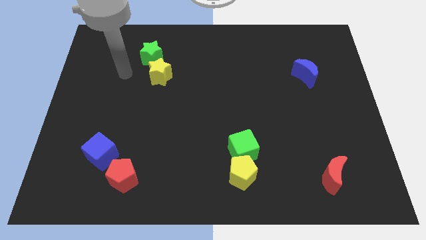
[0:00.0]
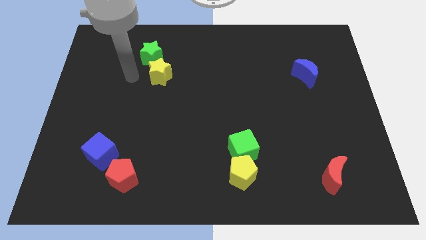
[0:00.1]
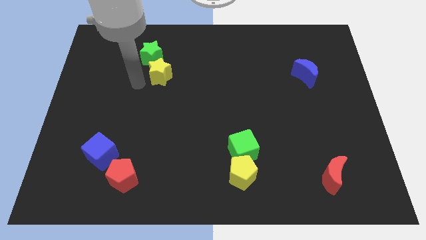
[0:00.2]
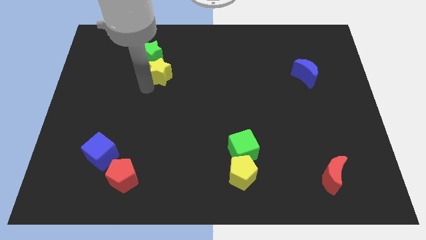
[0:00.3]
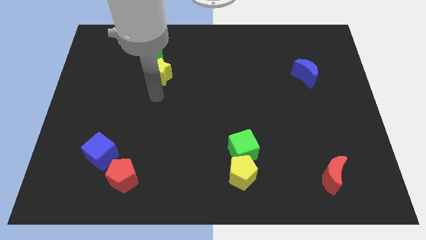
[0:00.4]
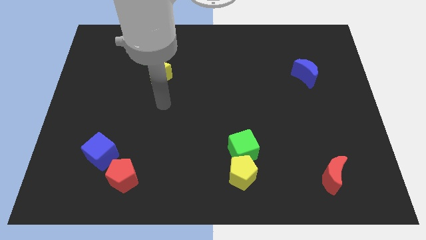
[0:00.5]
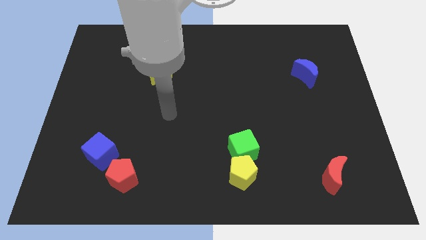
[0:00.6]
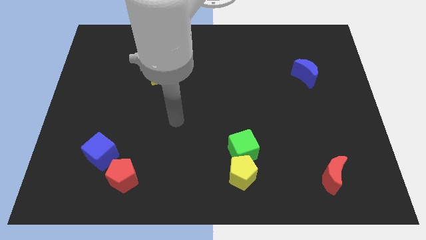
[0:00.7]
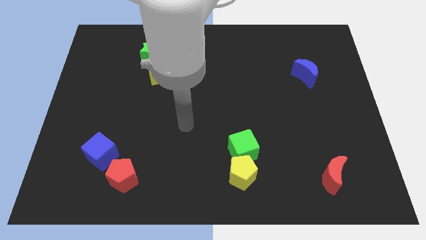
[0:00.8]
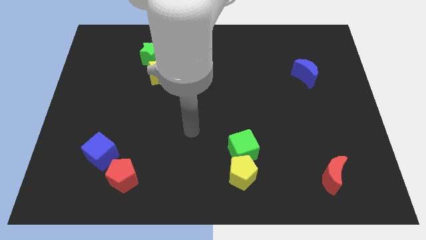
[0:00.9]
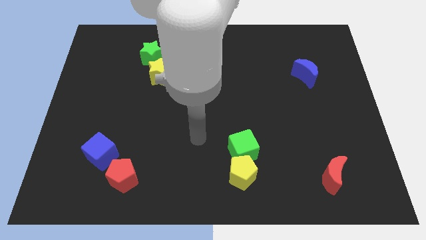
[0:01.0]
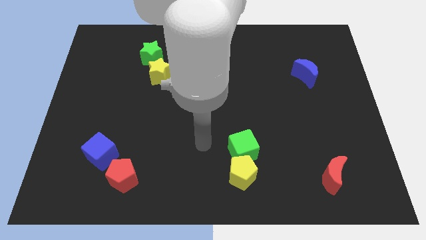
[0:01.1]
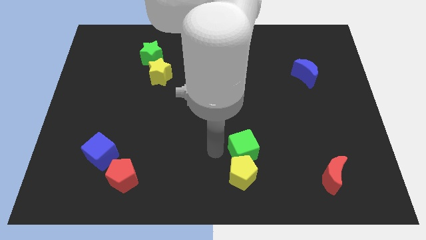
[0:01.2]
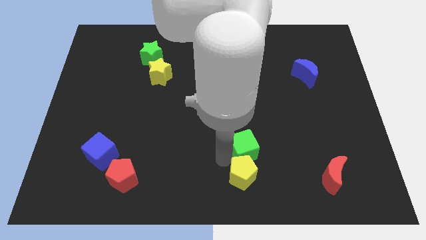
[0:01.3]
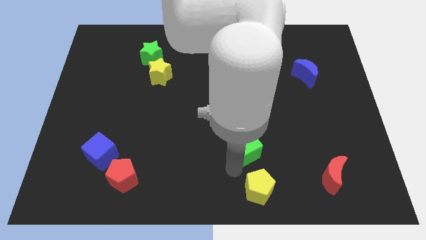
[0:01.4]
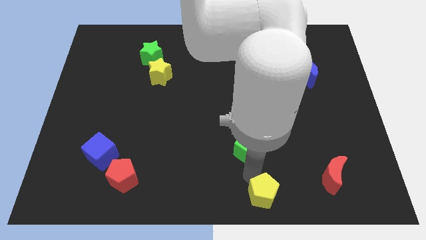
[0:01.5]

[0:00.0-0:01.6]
move the green cube away from the yellow pentagon

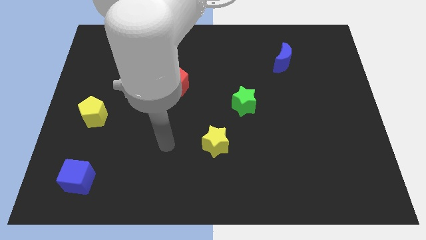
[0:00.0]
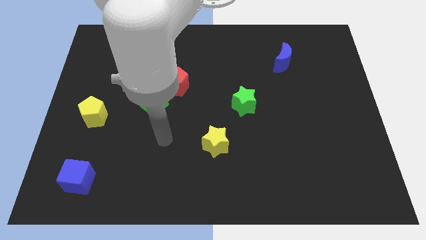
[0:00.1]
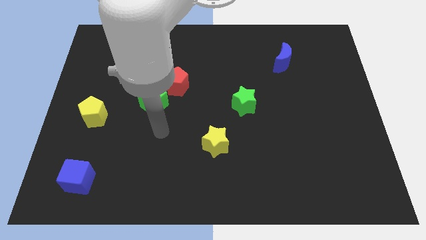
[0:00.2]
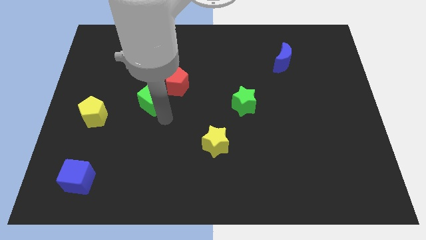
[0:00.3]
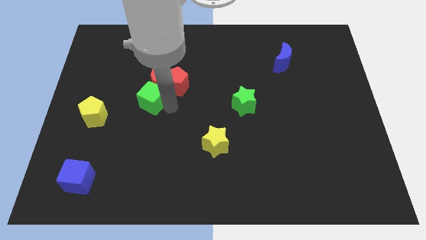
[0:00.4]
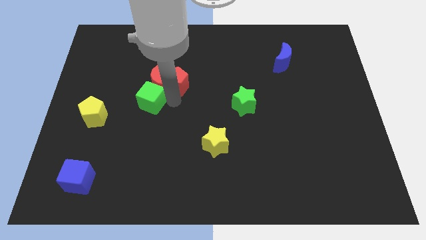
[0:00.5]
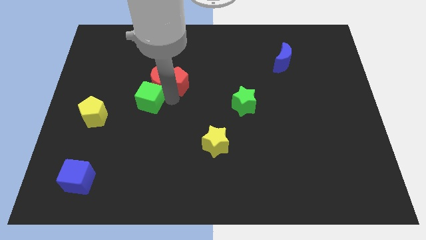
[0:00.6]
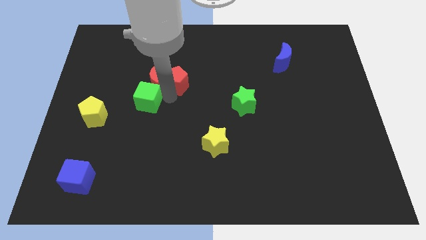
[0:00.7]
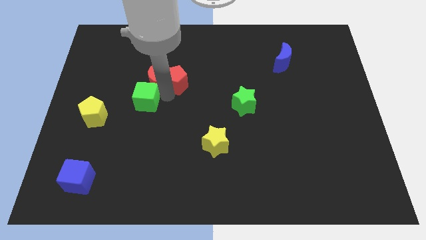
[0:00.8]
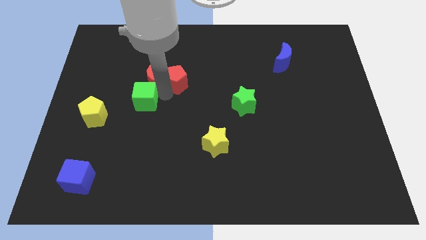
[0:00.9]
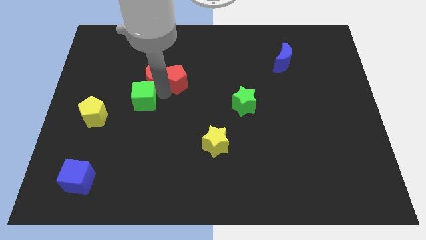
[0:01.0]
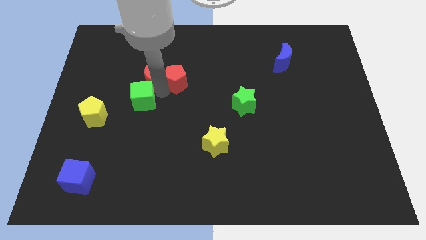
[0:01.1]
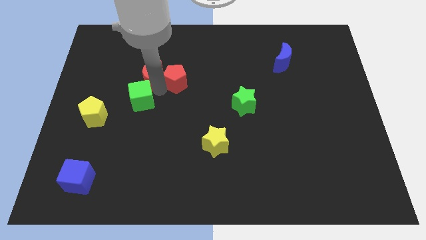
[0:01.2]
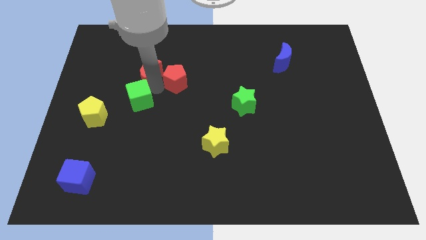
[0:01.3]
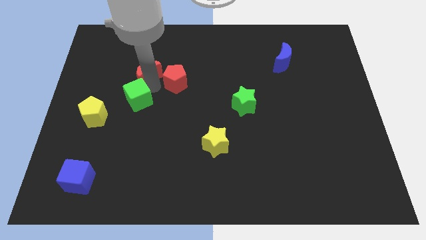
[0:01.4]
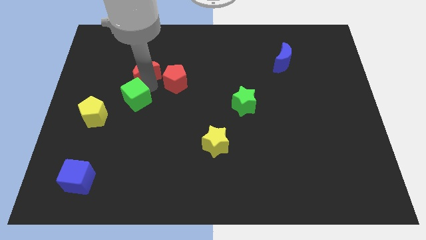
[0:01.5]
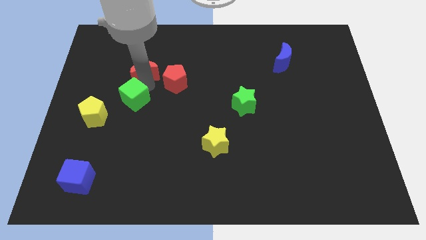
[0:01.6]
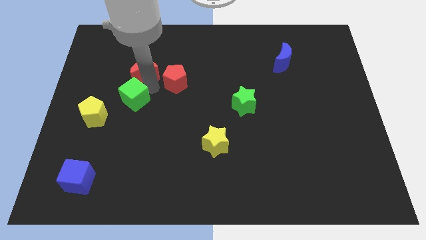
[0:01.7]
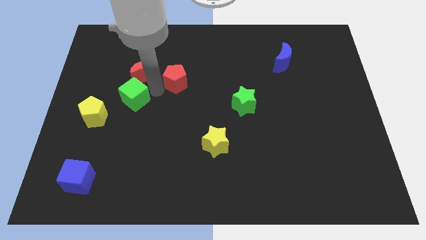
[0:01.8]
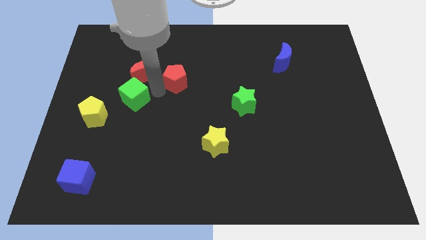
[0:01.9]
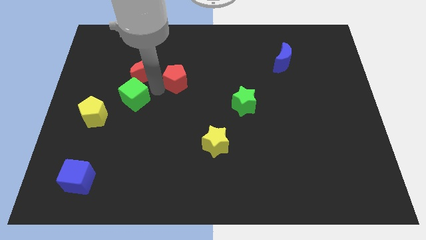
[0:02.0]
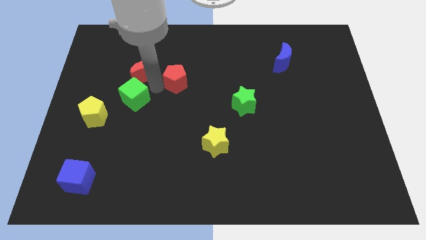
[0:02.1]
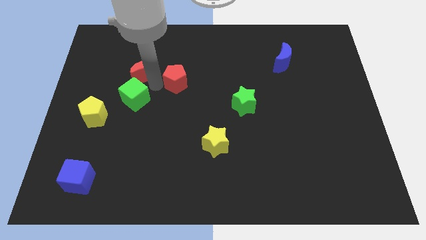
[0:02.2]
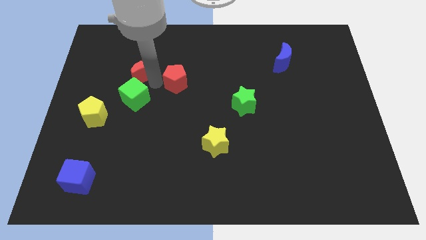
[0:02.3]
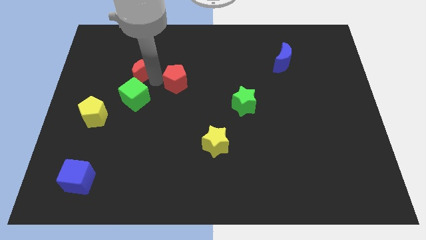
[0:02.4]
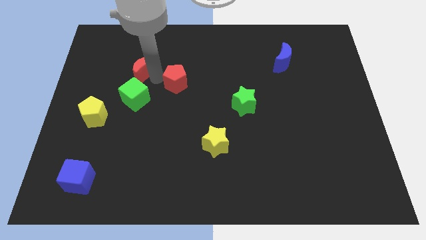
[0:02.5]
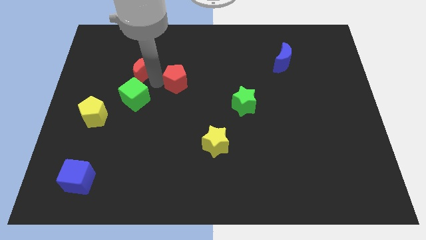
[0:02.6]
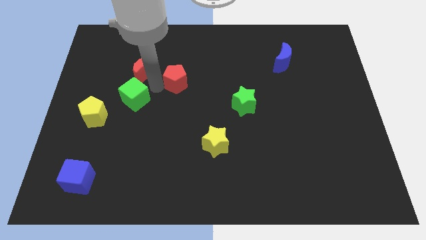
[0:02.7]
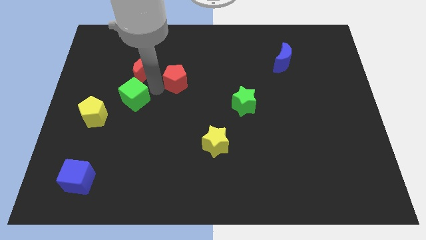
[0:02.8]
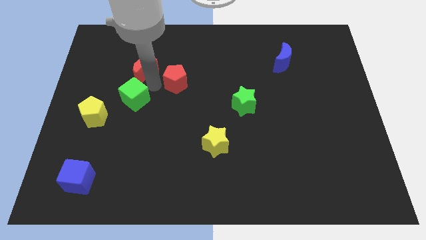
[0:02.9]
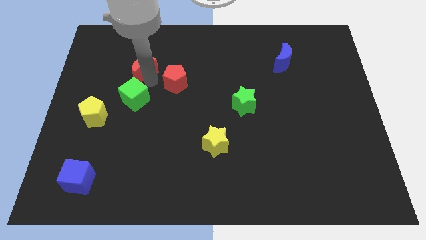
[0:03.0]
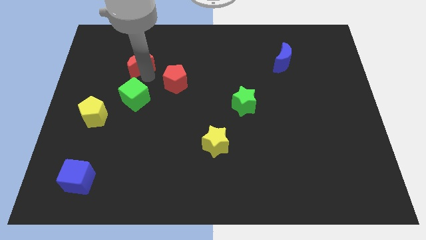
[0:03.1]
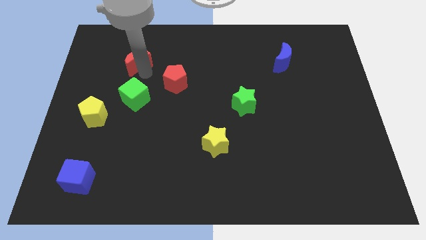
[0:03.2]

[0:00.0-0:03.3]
move the red moon away from the red pentagon and green cube

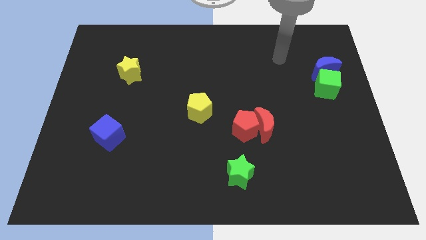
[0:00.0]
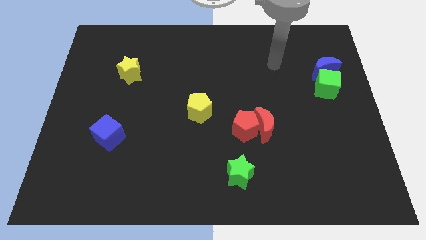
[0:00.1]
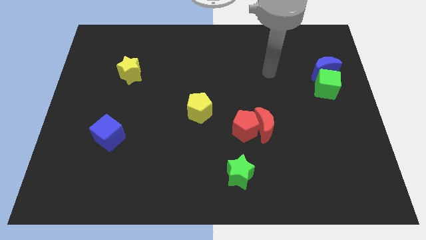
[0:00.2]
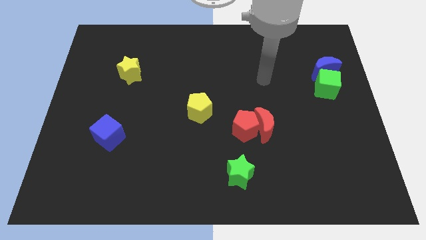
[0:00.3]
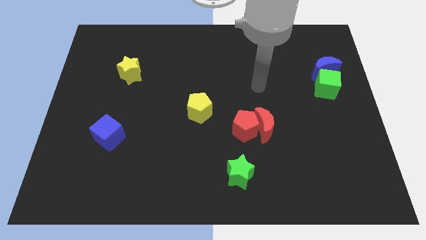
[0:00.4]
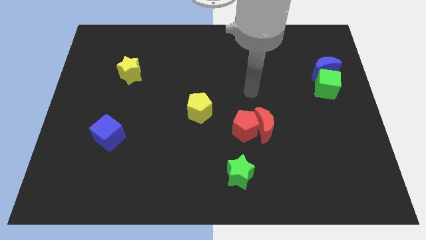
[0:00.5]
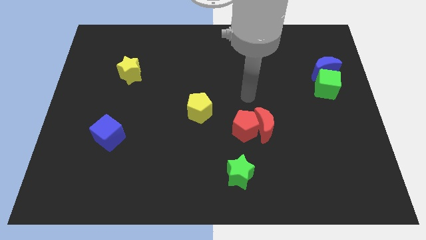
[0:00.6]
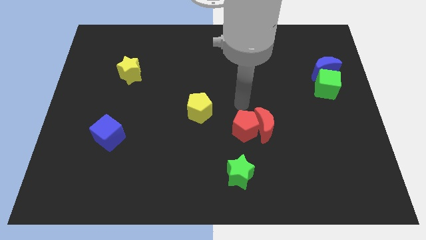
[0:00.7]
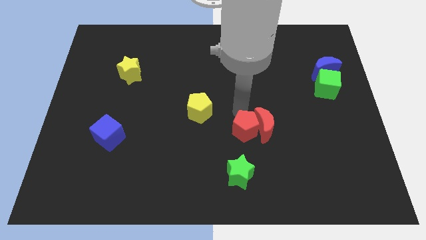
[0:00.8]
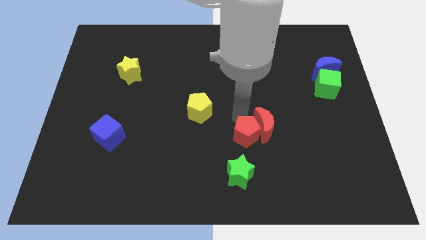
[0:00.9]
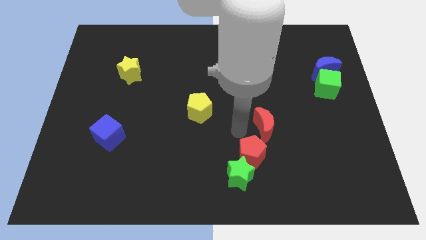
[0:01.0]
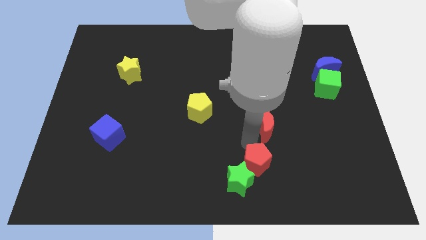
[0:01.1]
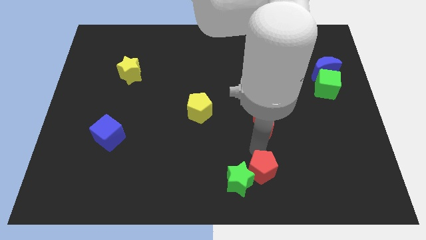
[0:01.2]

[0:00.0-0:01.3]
pull the red moon apart from the red pentagon

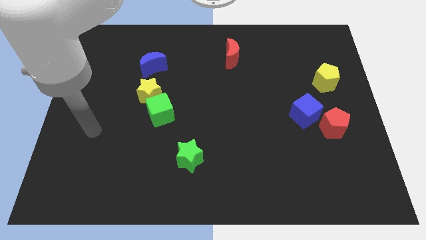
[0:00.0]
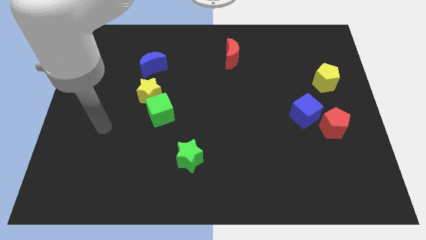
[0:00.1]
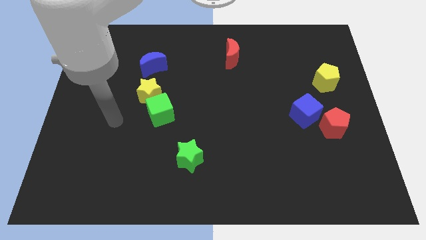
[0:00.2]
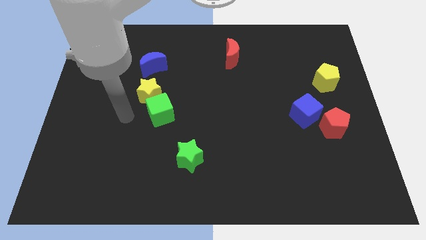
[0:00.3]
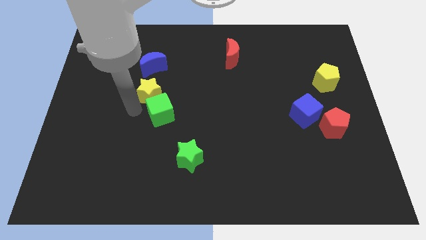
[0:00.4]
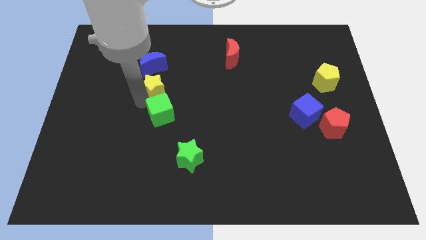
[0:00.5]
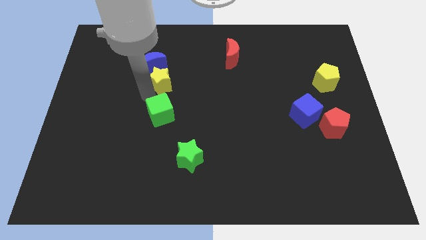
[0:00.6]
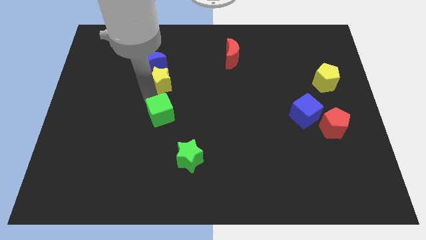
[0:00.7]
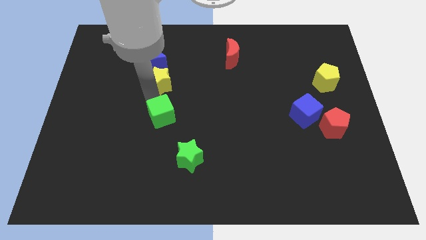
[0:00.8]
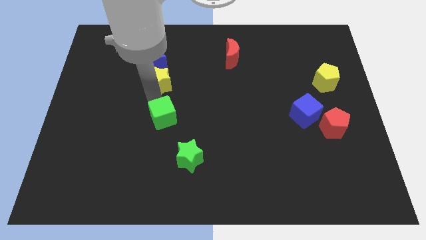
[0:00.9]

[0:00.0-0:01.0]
move the green cube away from the yellow star

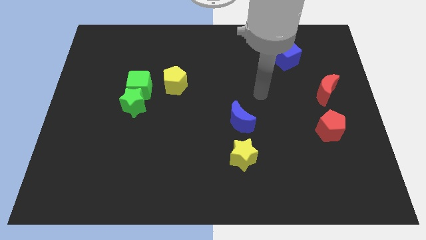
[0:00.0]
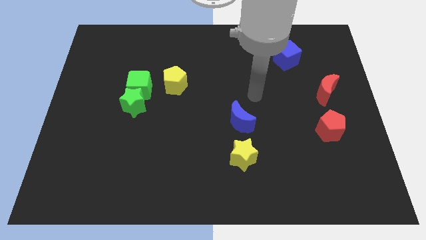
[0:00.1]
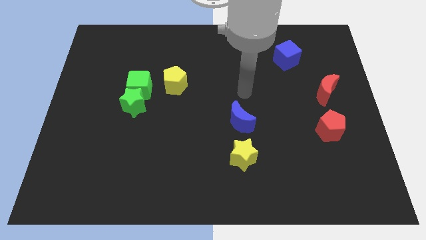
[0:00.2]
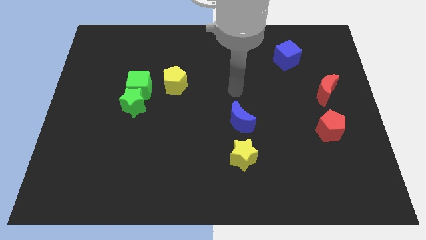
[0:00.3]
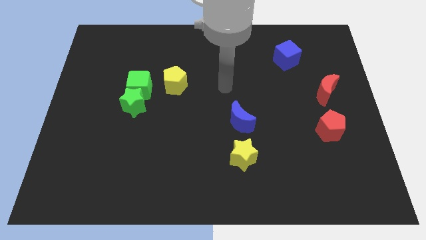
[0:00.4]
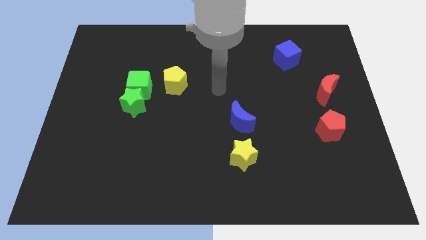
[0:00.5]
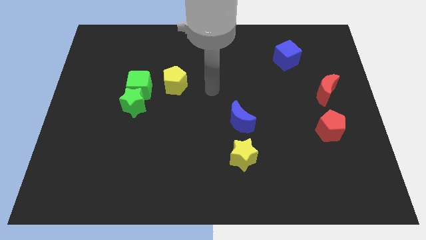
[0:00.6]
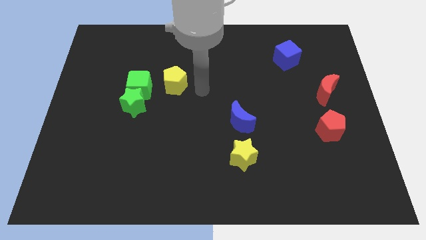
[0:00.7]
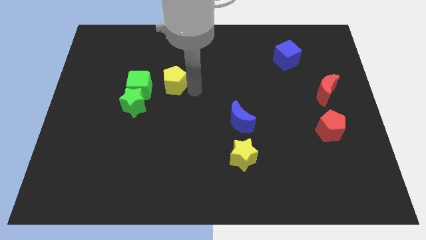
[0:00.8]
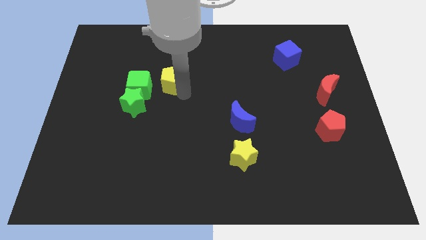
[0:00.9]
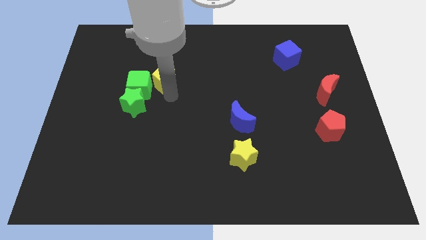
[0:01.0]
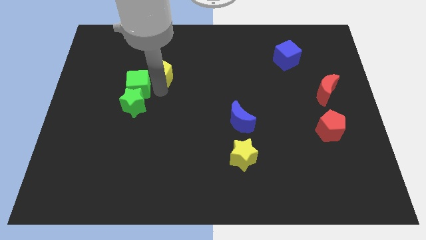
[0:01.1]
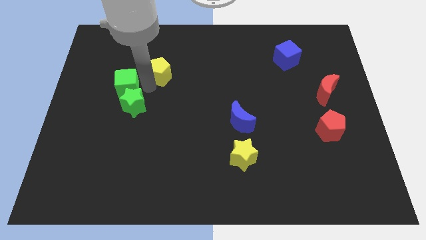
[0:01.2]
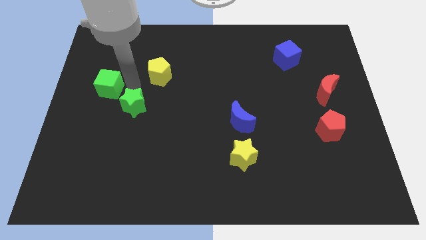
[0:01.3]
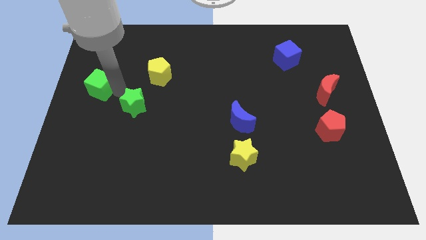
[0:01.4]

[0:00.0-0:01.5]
move the green star away from the green cube

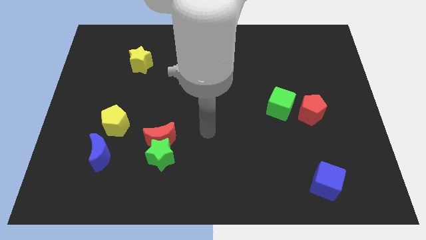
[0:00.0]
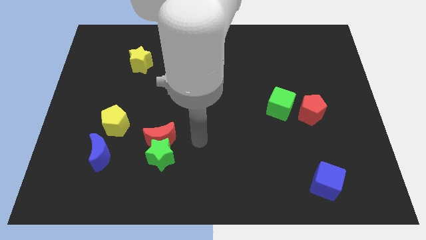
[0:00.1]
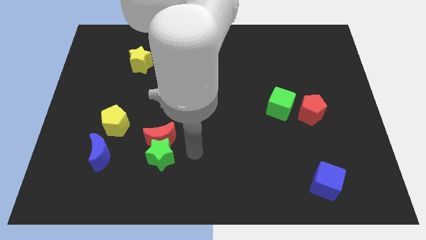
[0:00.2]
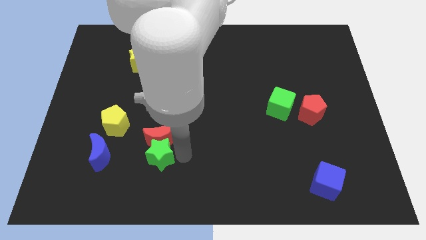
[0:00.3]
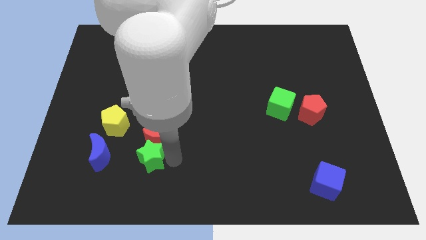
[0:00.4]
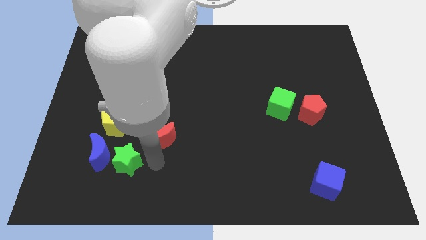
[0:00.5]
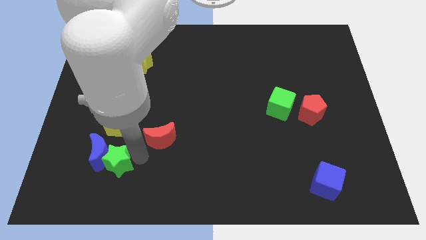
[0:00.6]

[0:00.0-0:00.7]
pull the red moon apart from the green star
